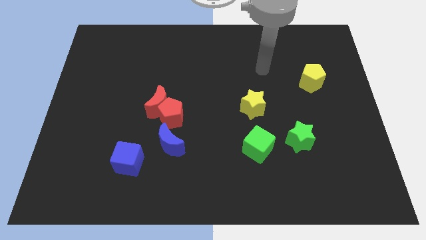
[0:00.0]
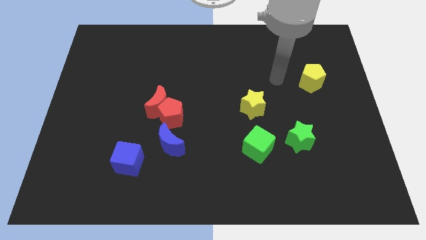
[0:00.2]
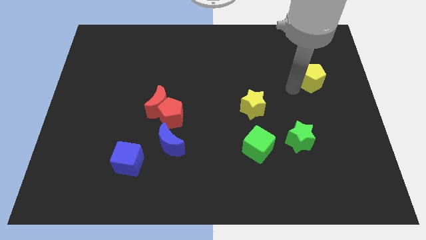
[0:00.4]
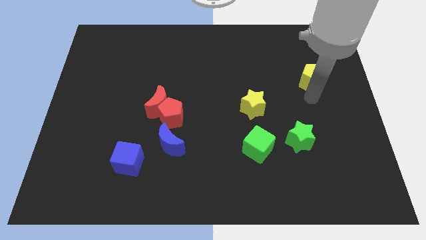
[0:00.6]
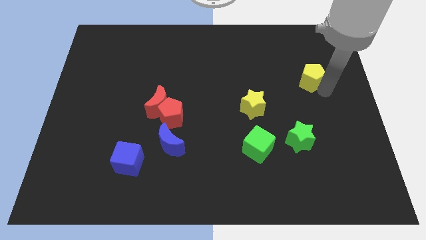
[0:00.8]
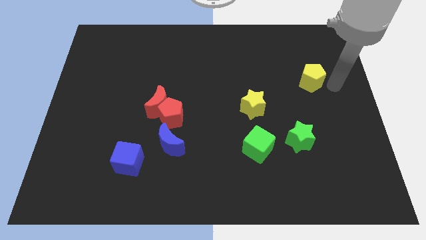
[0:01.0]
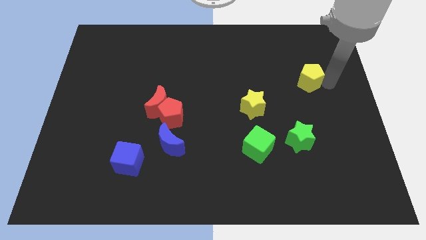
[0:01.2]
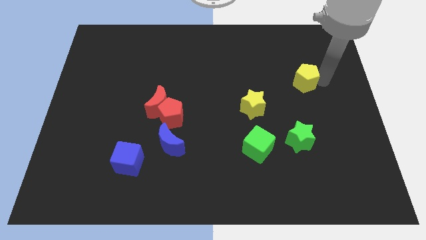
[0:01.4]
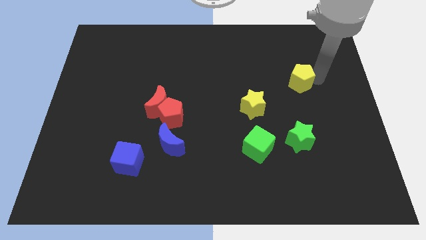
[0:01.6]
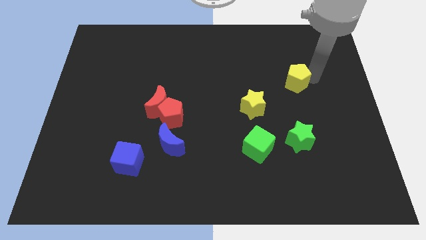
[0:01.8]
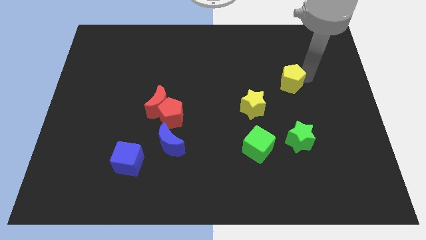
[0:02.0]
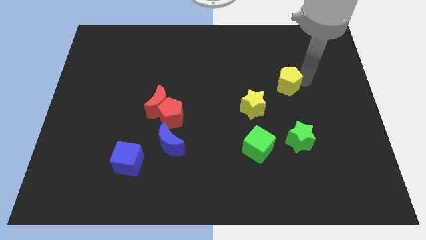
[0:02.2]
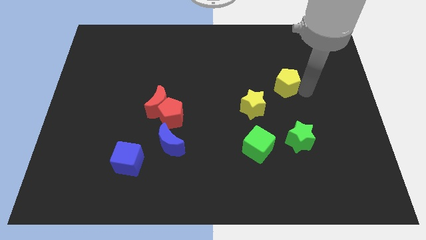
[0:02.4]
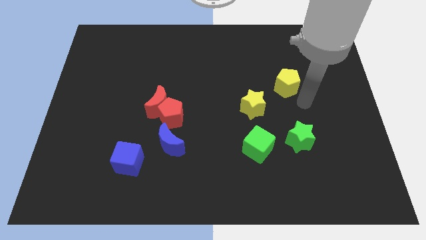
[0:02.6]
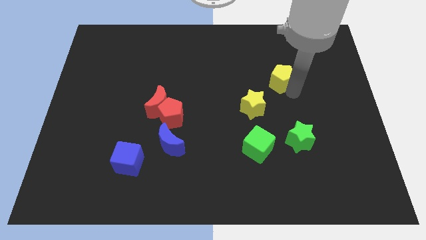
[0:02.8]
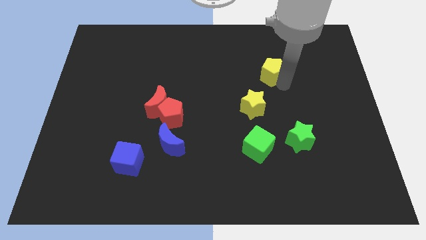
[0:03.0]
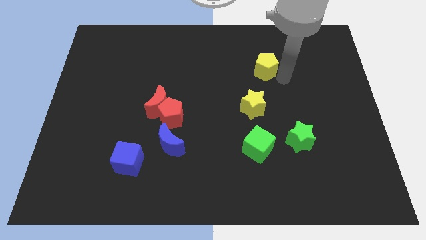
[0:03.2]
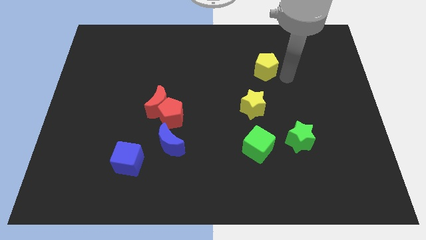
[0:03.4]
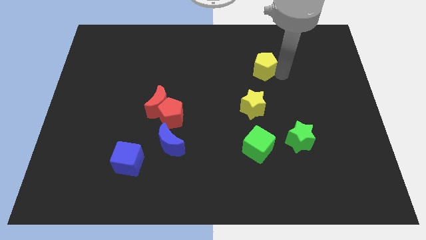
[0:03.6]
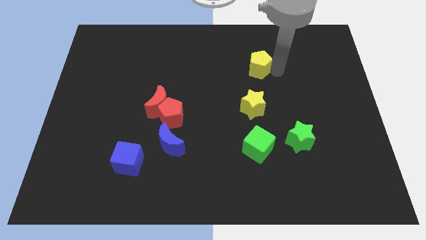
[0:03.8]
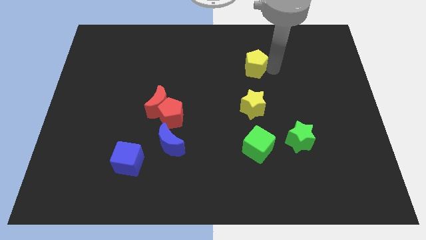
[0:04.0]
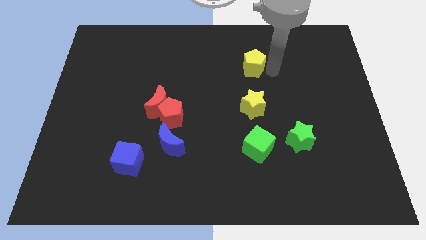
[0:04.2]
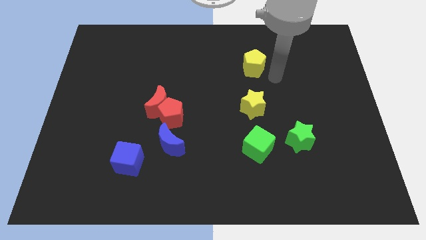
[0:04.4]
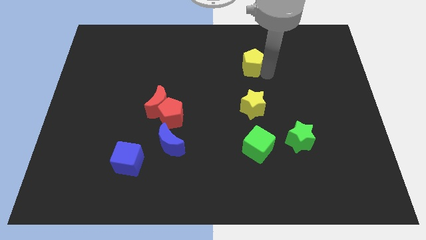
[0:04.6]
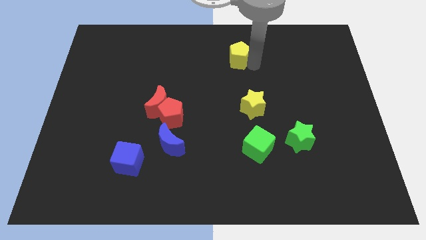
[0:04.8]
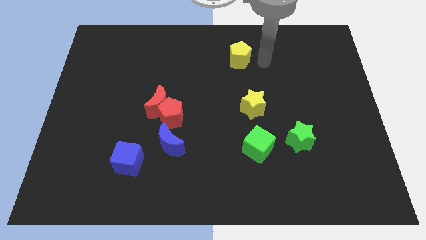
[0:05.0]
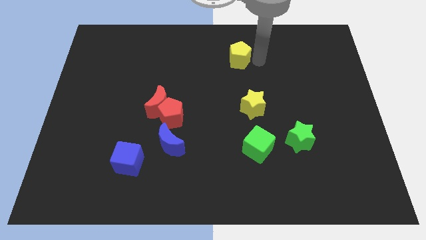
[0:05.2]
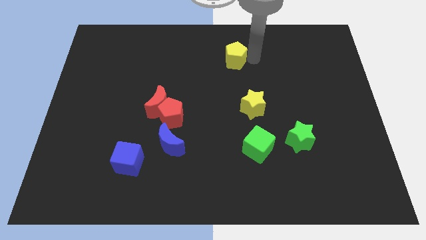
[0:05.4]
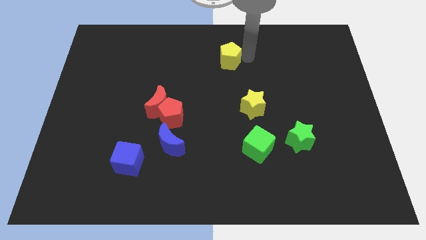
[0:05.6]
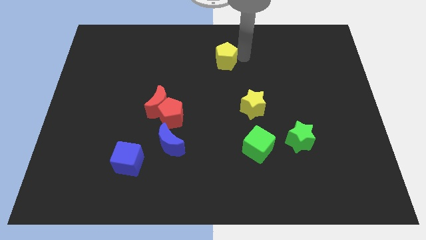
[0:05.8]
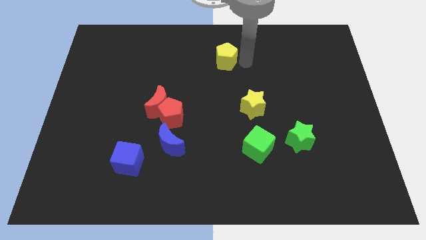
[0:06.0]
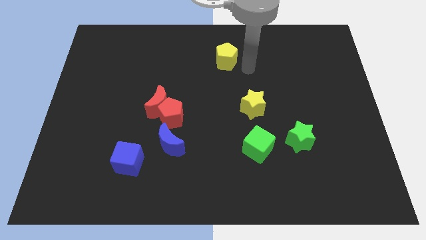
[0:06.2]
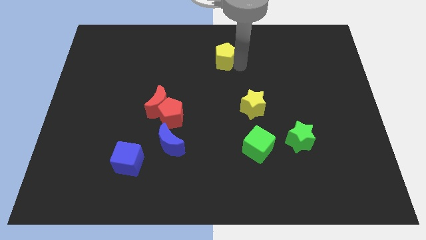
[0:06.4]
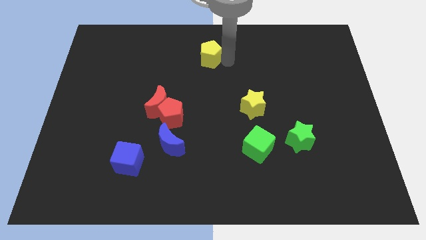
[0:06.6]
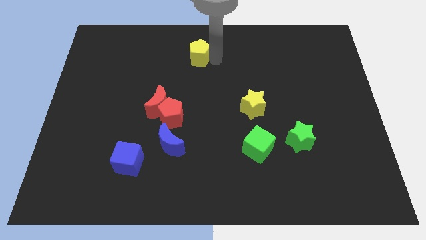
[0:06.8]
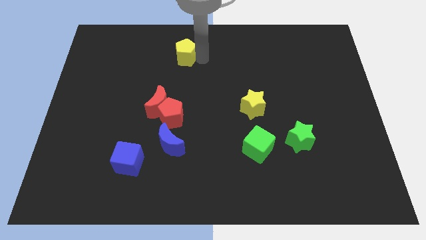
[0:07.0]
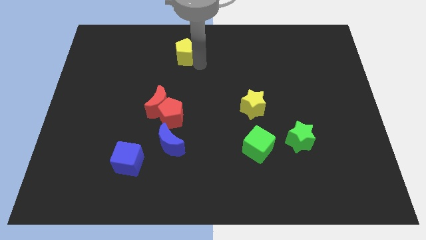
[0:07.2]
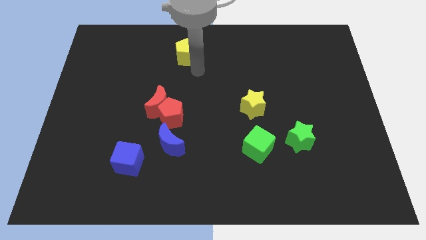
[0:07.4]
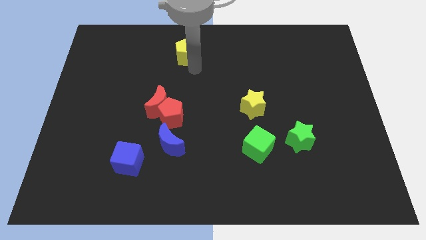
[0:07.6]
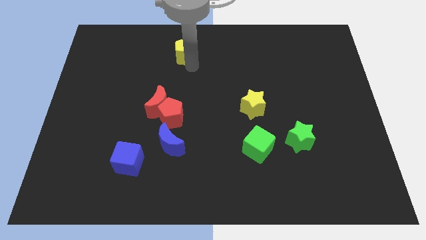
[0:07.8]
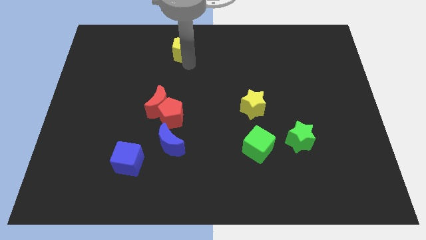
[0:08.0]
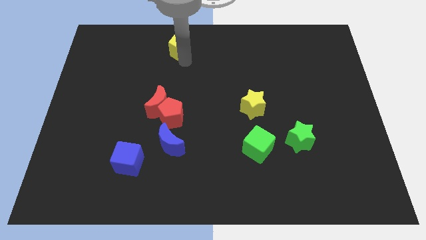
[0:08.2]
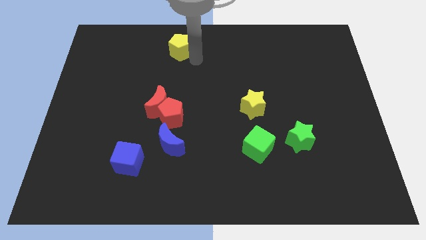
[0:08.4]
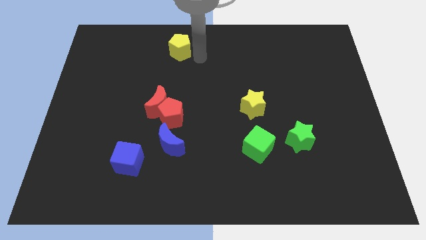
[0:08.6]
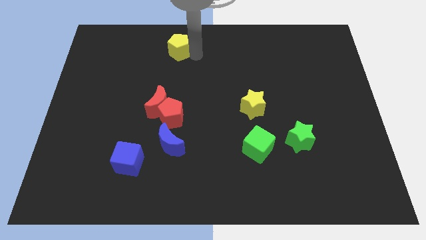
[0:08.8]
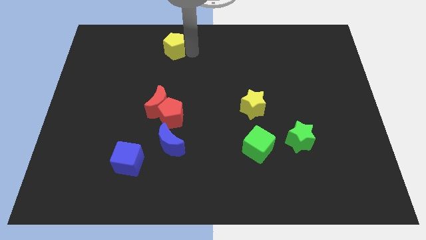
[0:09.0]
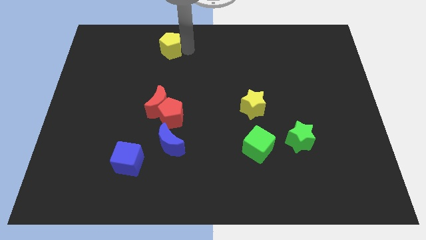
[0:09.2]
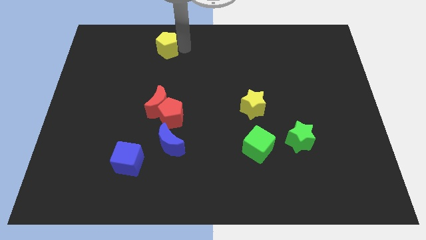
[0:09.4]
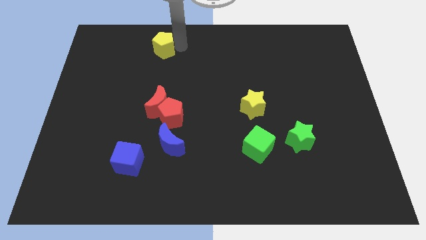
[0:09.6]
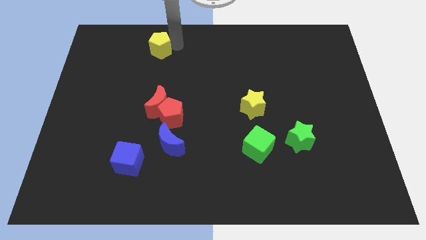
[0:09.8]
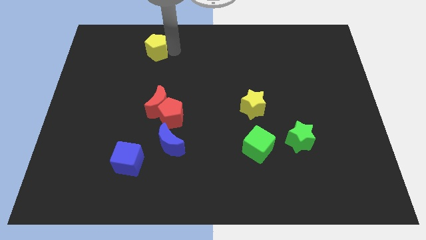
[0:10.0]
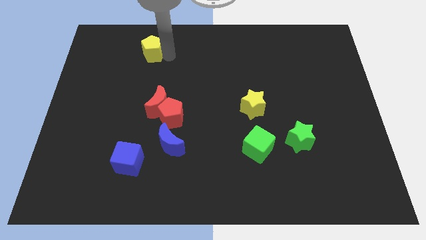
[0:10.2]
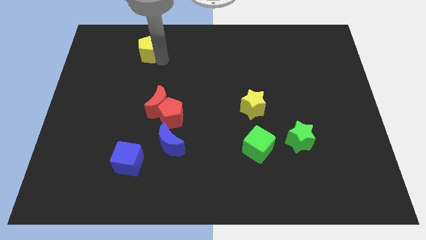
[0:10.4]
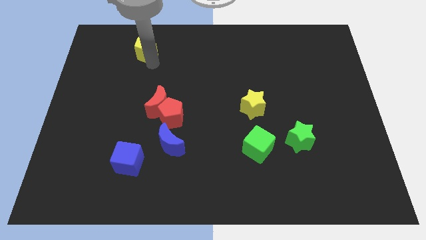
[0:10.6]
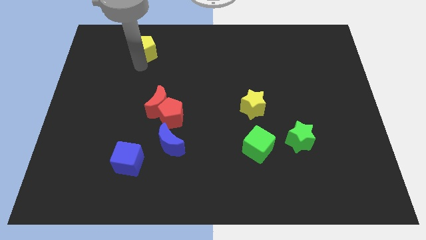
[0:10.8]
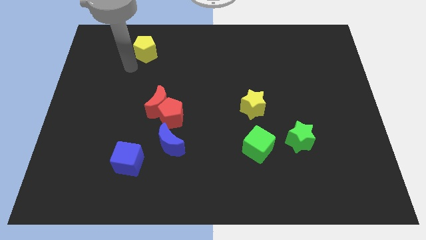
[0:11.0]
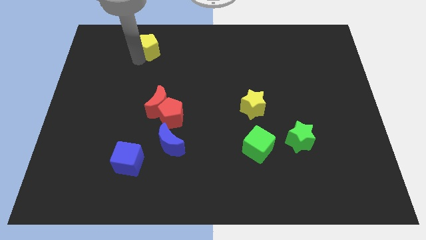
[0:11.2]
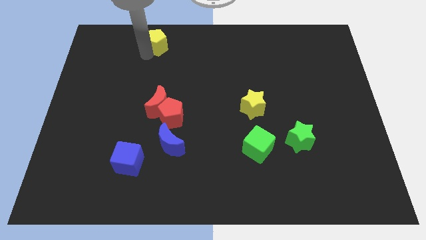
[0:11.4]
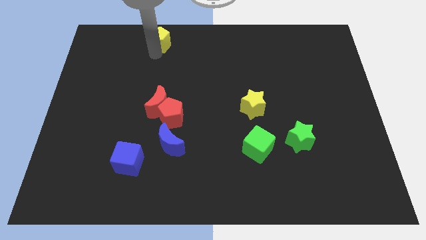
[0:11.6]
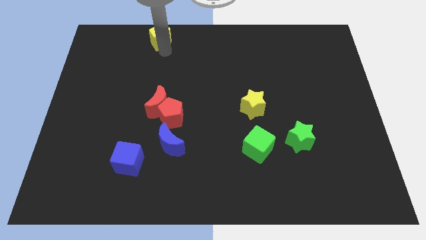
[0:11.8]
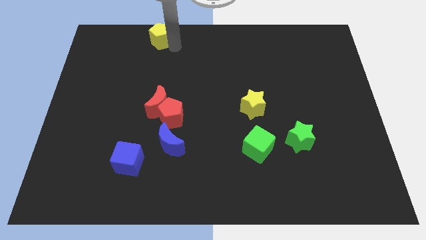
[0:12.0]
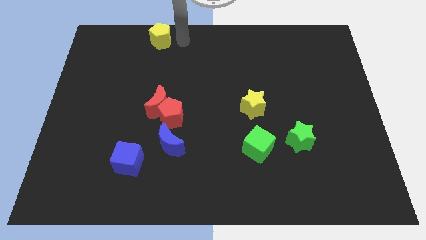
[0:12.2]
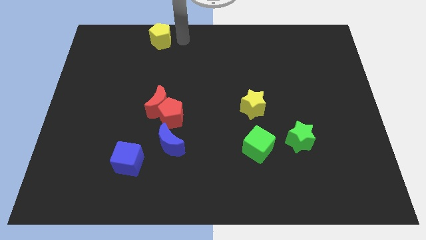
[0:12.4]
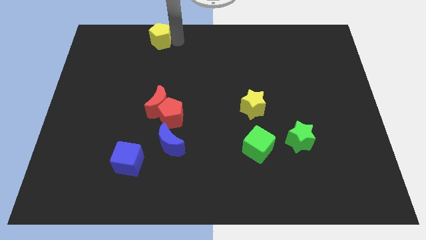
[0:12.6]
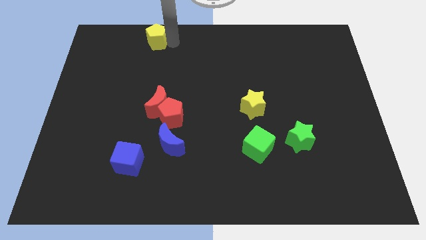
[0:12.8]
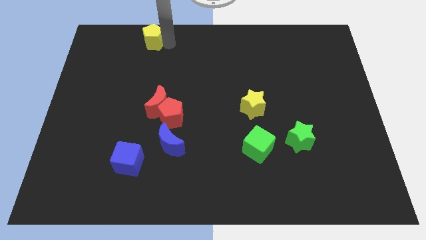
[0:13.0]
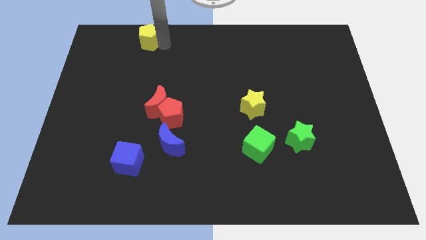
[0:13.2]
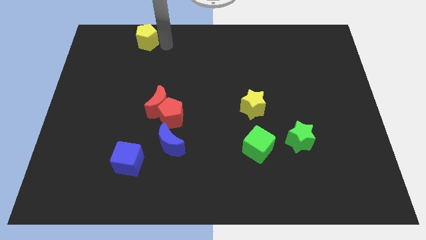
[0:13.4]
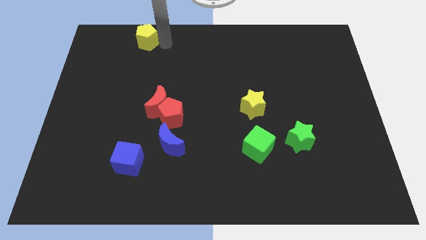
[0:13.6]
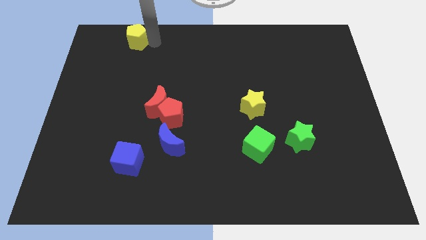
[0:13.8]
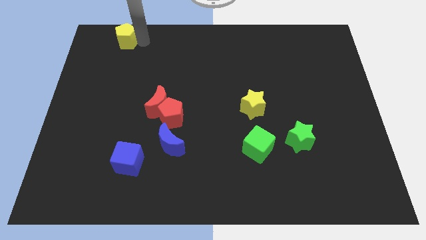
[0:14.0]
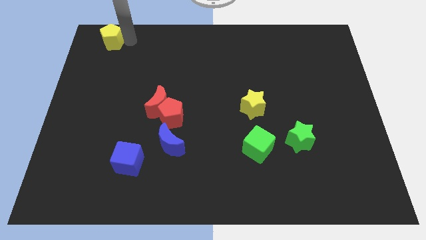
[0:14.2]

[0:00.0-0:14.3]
move the yellow pentagon to the top left corner
